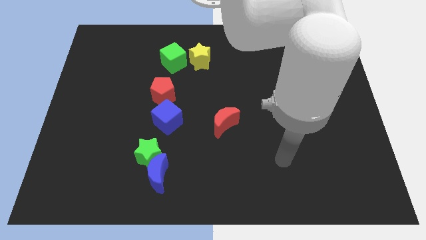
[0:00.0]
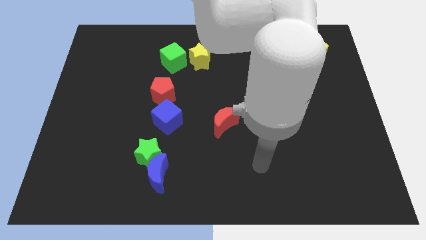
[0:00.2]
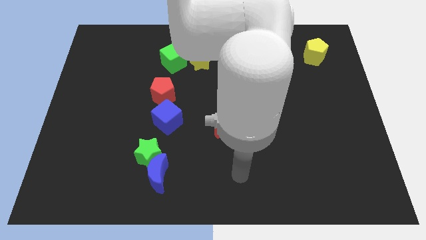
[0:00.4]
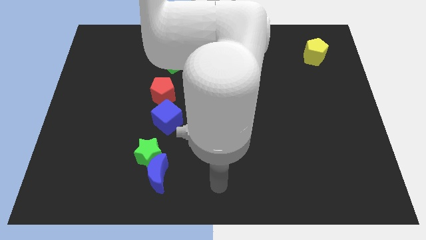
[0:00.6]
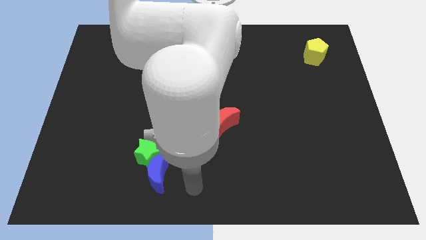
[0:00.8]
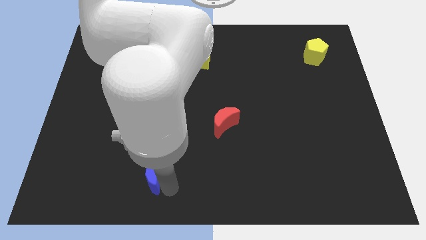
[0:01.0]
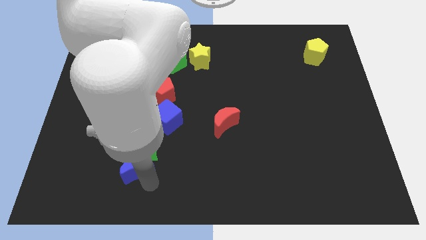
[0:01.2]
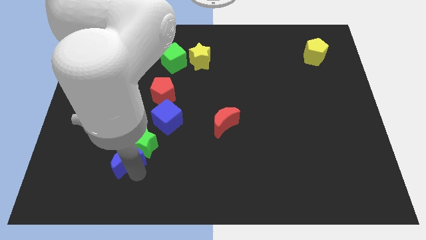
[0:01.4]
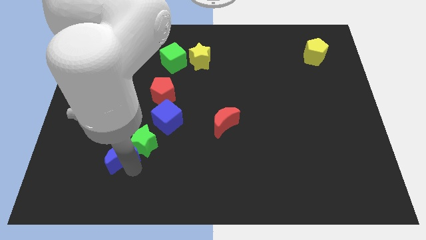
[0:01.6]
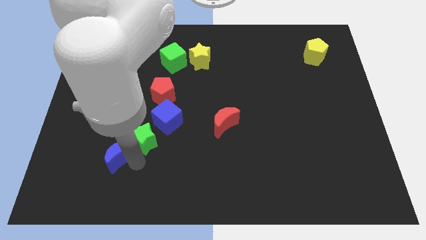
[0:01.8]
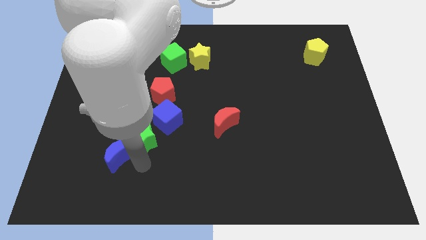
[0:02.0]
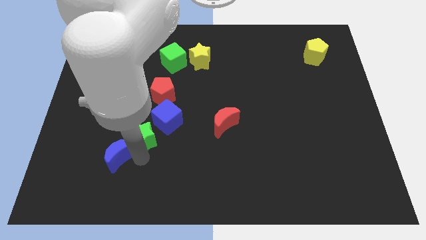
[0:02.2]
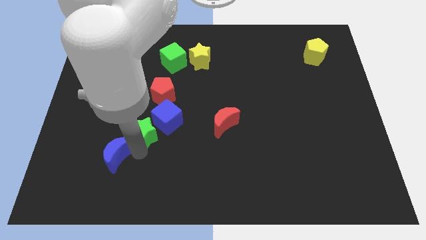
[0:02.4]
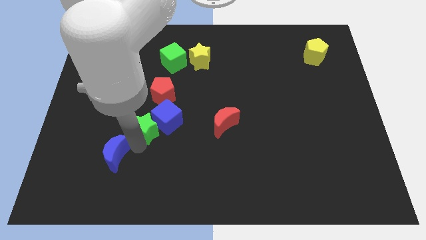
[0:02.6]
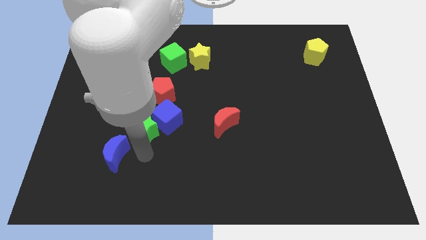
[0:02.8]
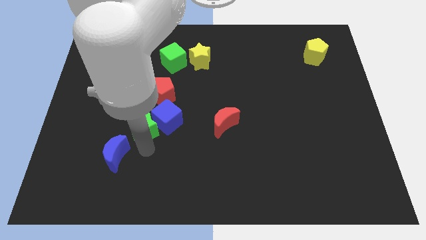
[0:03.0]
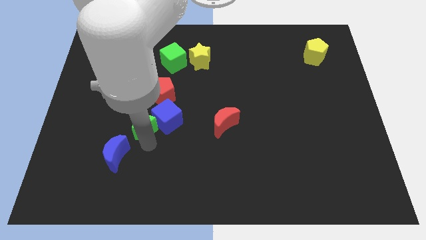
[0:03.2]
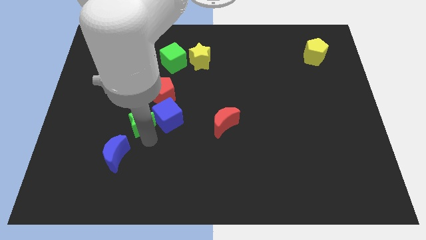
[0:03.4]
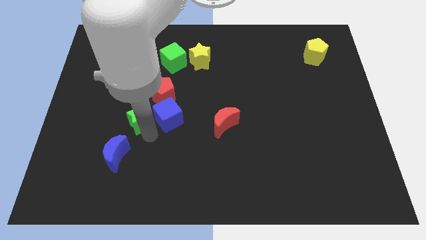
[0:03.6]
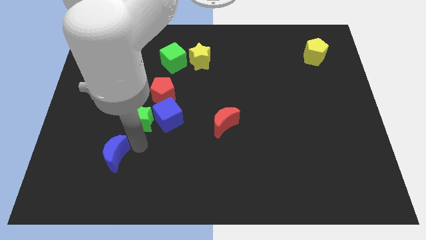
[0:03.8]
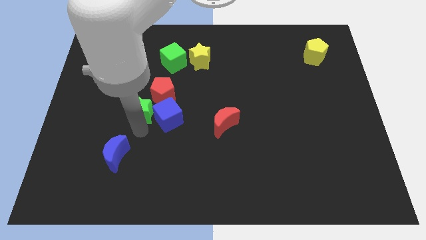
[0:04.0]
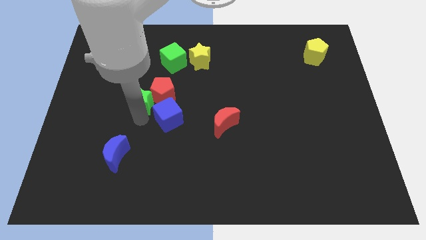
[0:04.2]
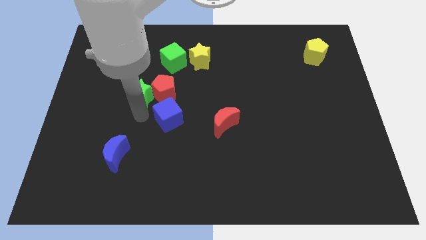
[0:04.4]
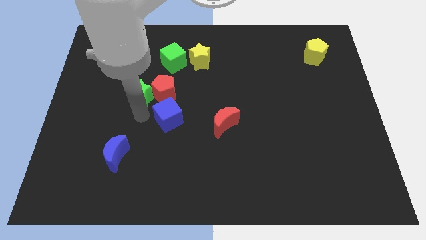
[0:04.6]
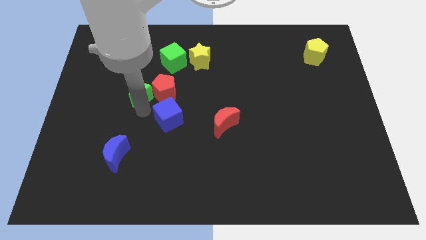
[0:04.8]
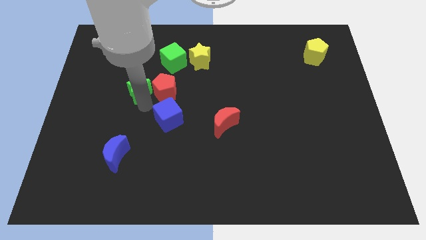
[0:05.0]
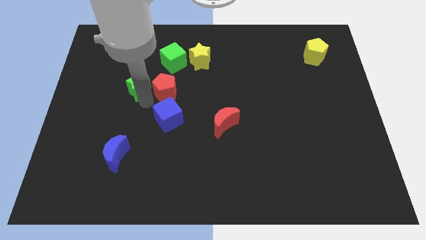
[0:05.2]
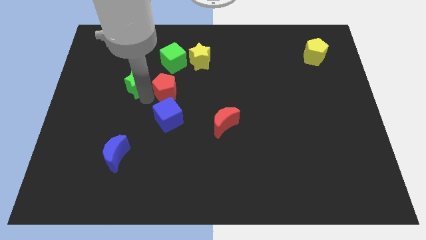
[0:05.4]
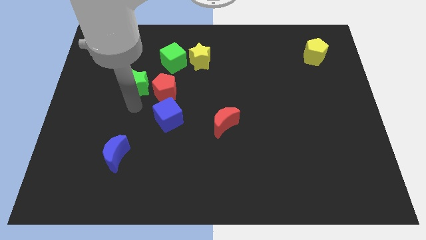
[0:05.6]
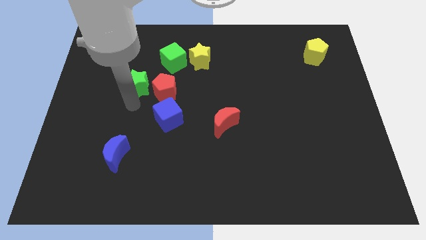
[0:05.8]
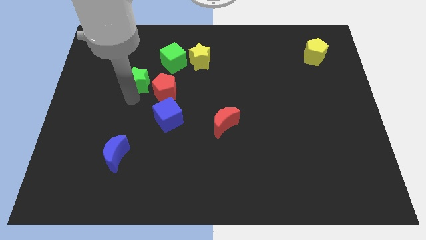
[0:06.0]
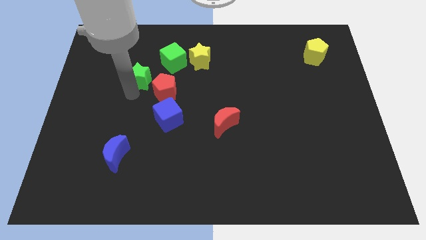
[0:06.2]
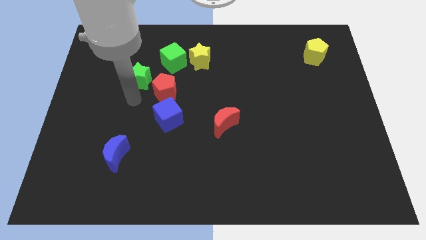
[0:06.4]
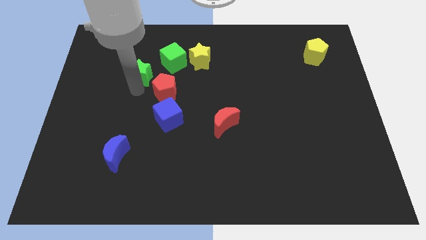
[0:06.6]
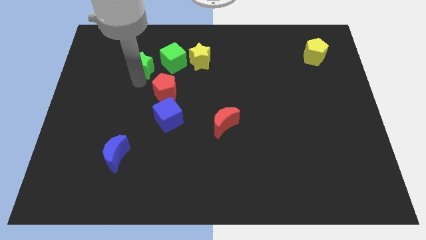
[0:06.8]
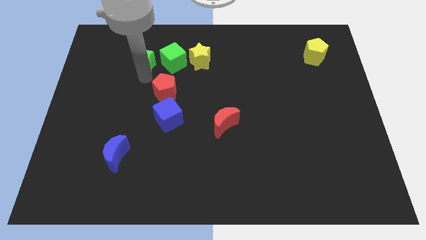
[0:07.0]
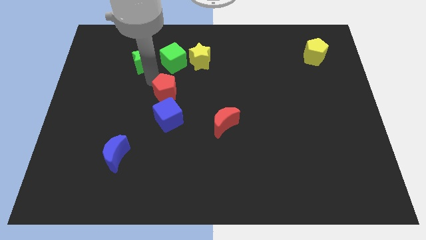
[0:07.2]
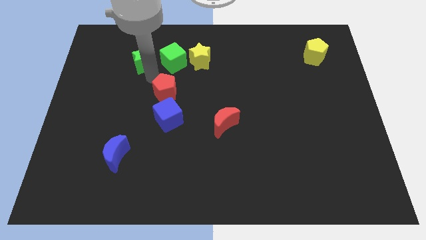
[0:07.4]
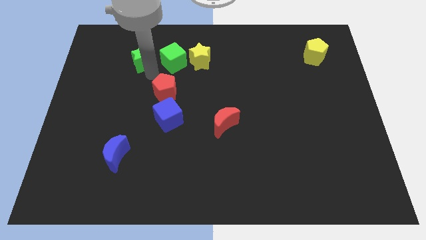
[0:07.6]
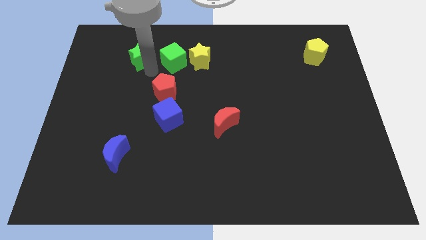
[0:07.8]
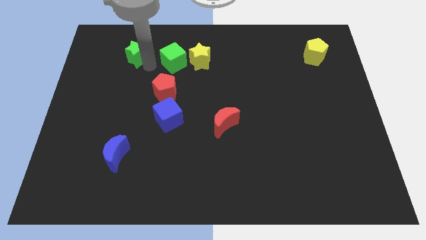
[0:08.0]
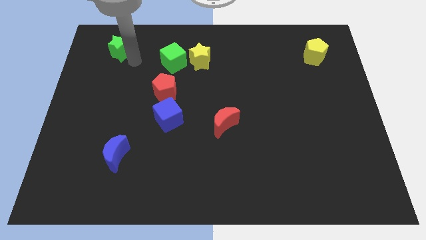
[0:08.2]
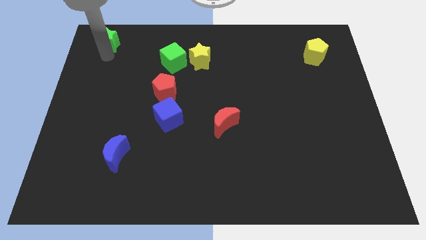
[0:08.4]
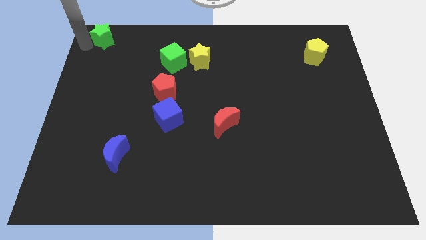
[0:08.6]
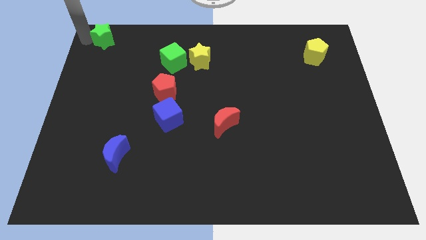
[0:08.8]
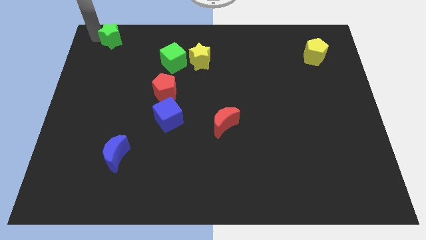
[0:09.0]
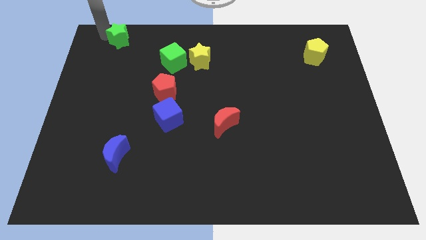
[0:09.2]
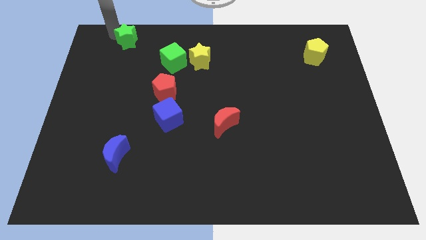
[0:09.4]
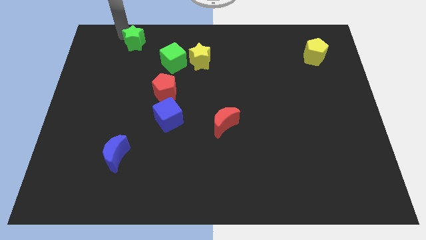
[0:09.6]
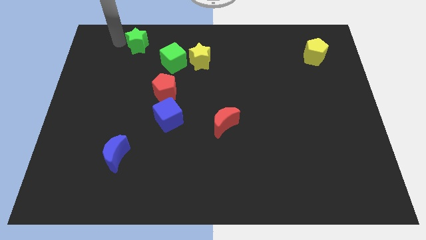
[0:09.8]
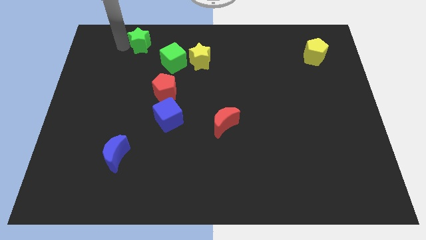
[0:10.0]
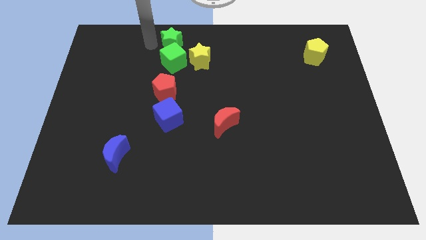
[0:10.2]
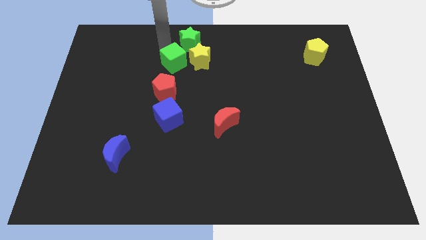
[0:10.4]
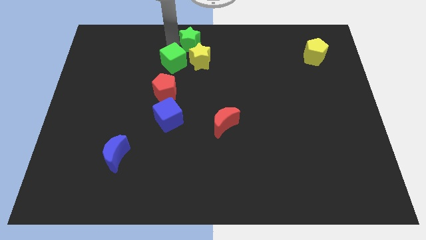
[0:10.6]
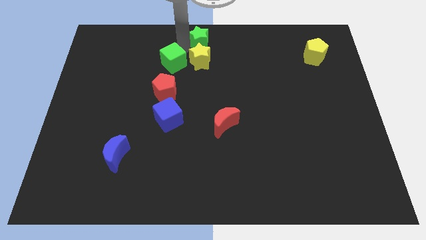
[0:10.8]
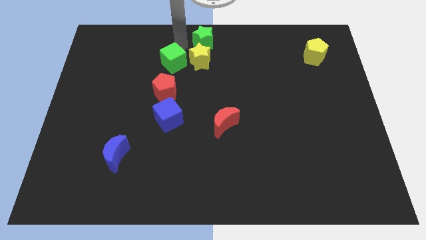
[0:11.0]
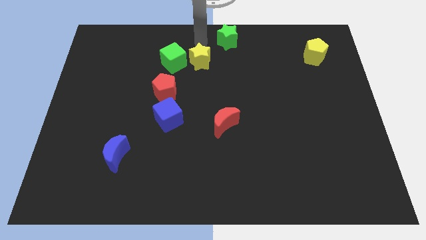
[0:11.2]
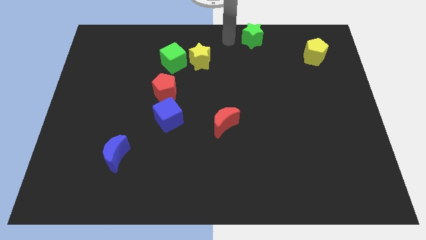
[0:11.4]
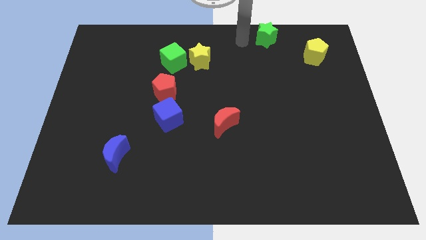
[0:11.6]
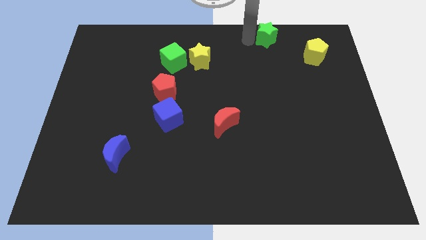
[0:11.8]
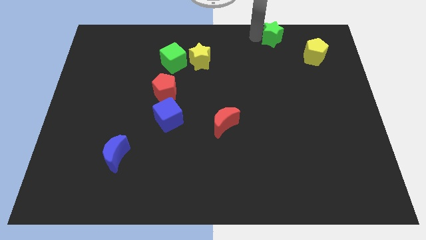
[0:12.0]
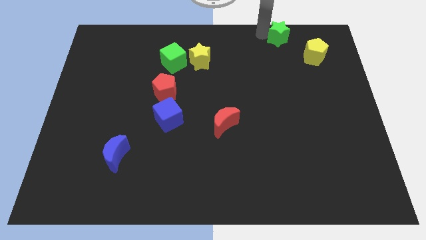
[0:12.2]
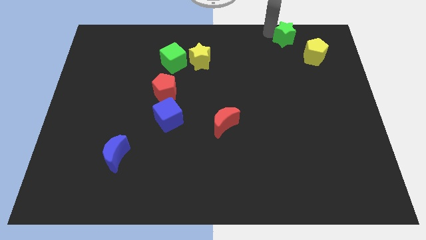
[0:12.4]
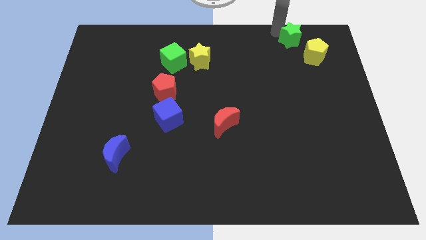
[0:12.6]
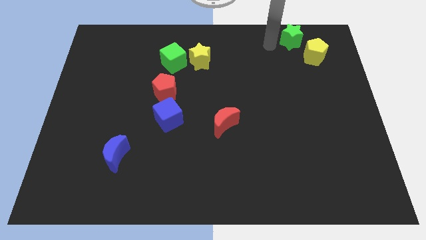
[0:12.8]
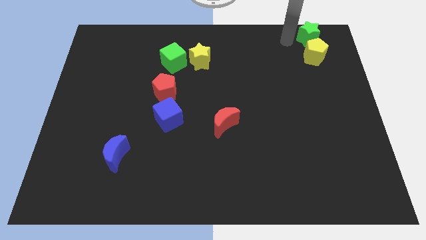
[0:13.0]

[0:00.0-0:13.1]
slide the green star to the top right of the board
